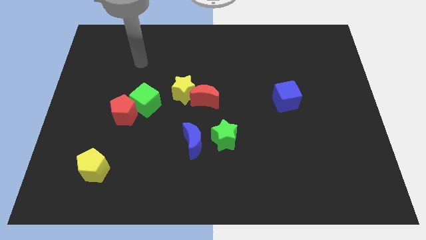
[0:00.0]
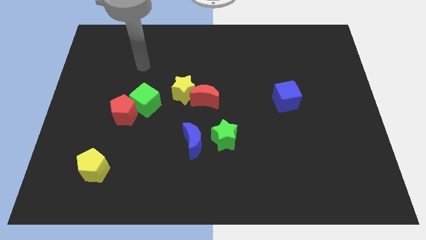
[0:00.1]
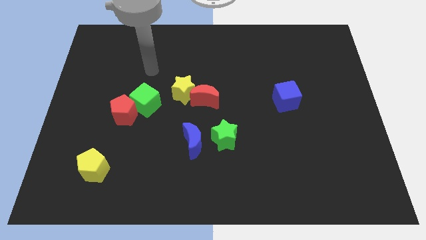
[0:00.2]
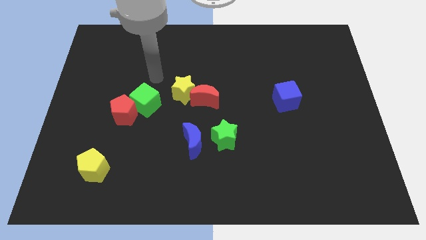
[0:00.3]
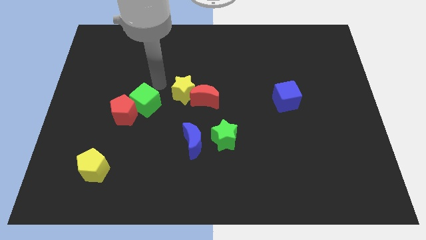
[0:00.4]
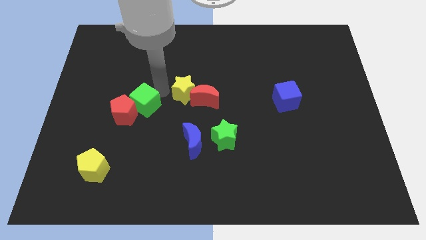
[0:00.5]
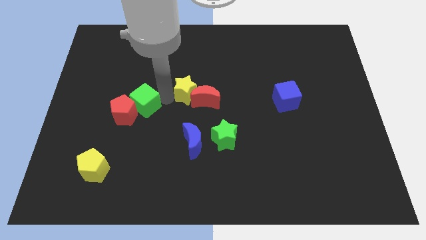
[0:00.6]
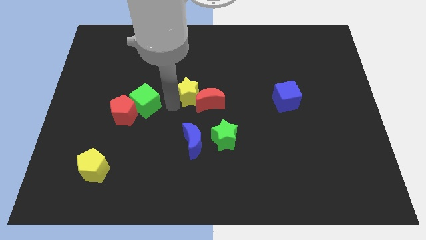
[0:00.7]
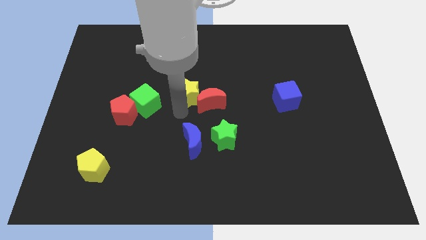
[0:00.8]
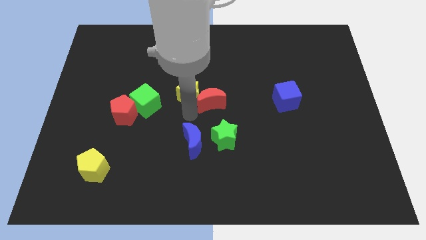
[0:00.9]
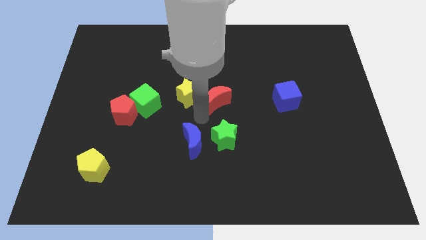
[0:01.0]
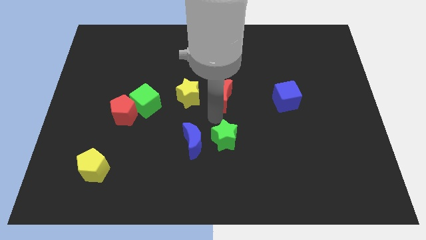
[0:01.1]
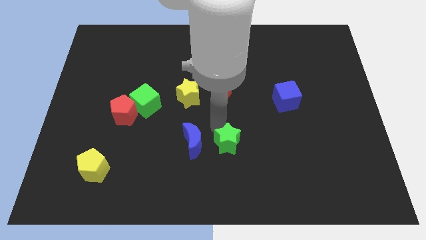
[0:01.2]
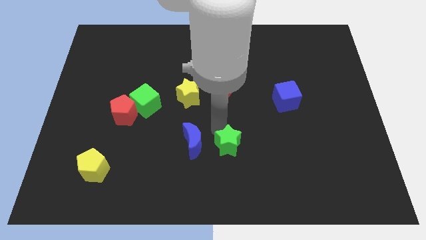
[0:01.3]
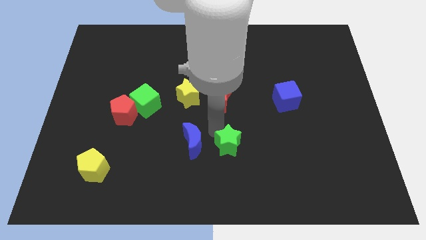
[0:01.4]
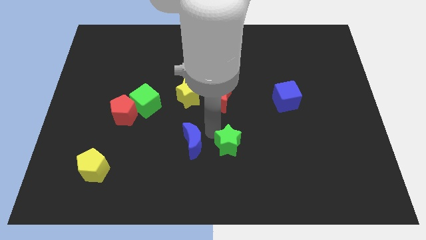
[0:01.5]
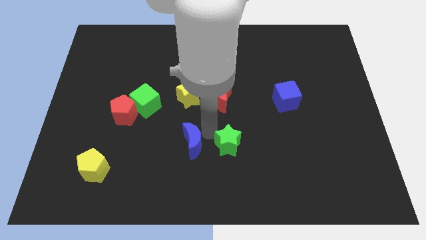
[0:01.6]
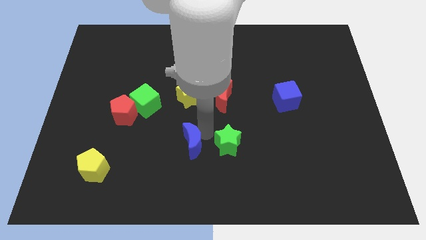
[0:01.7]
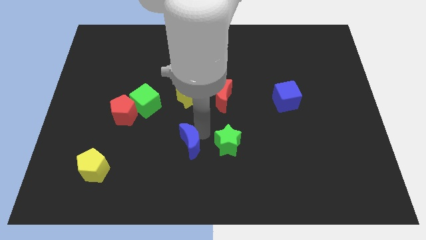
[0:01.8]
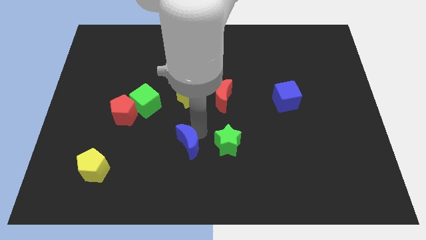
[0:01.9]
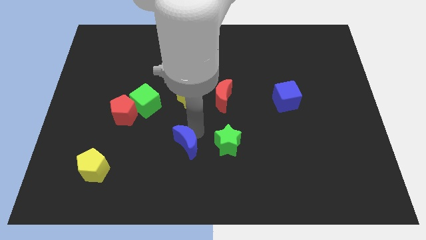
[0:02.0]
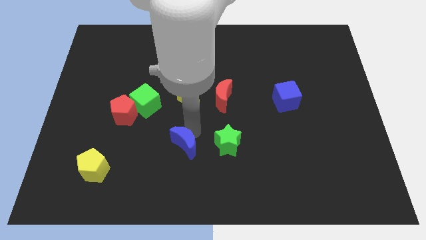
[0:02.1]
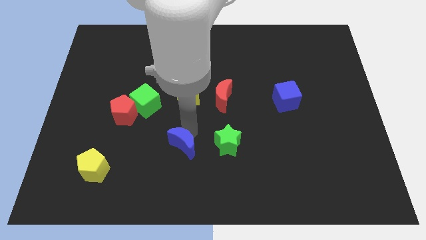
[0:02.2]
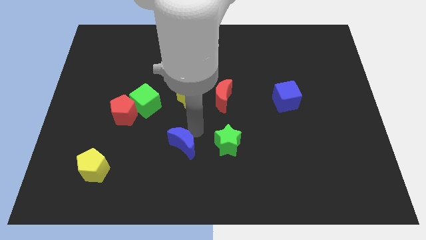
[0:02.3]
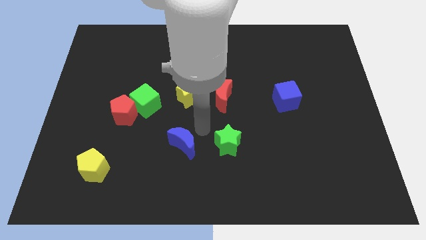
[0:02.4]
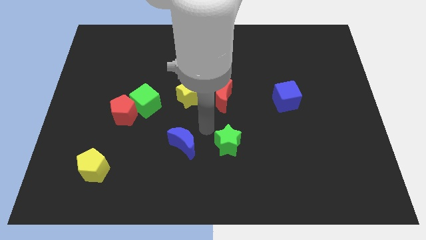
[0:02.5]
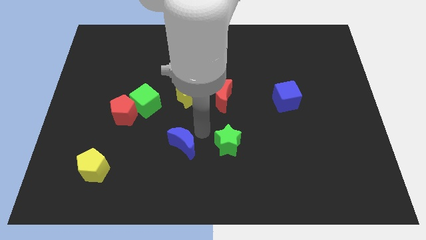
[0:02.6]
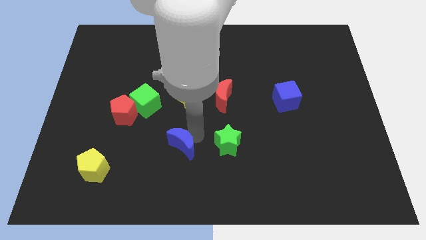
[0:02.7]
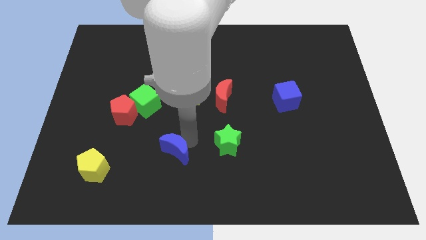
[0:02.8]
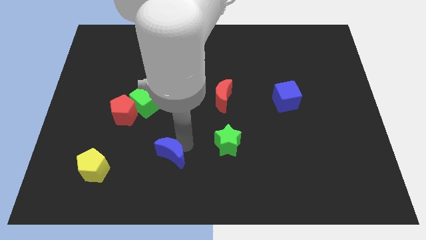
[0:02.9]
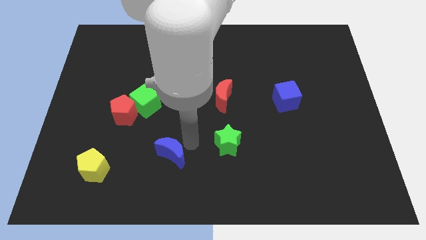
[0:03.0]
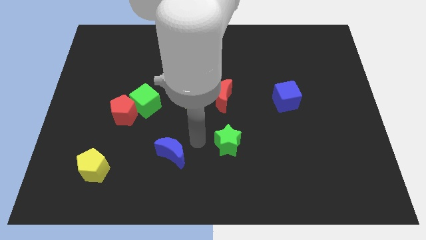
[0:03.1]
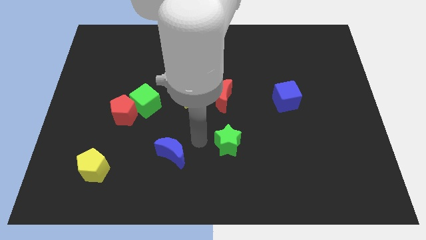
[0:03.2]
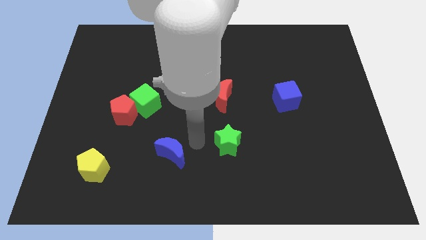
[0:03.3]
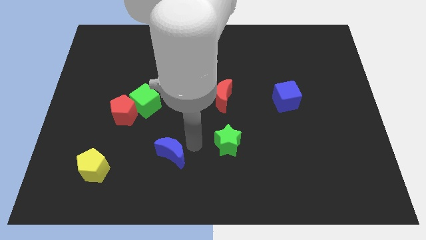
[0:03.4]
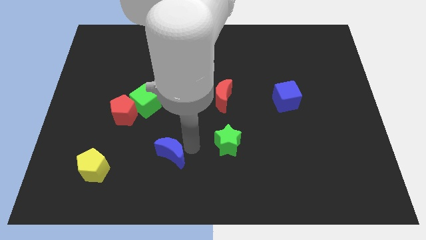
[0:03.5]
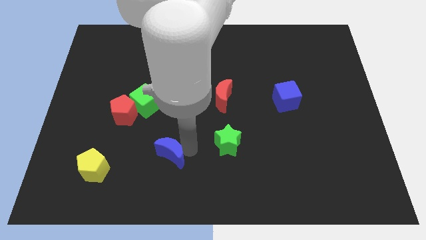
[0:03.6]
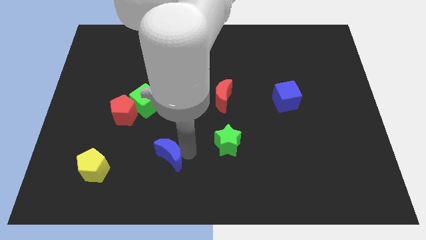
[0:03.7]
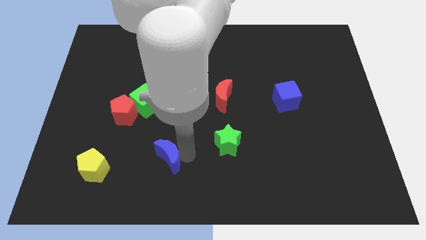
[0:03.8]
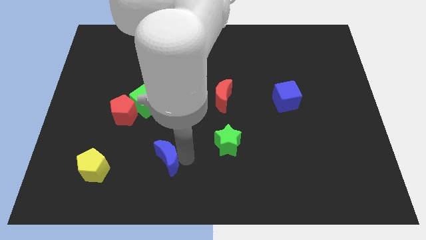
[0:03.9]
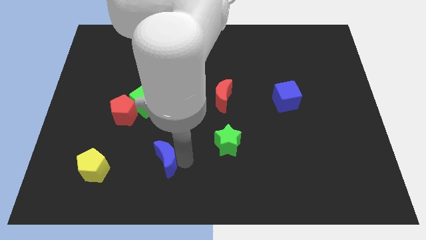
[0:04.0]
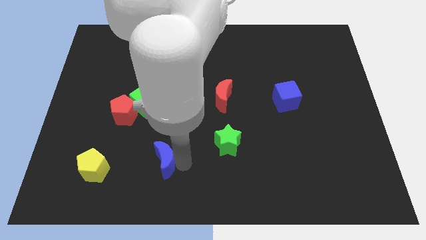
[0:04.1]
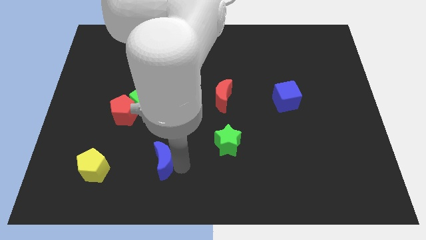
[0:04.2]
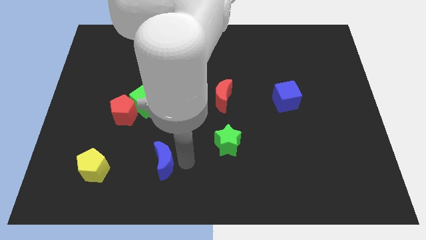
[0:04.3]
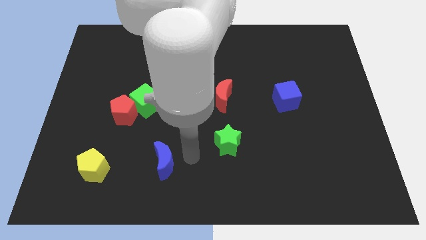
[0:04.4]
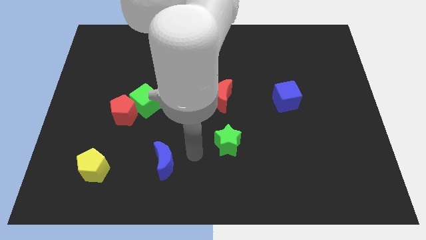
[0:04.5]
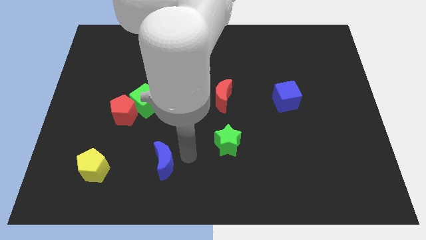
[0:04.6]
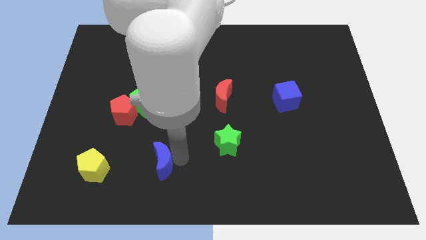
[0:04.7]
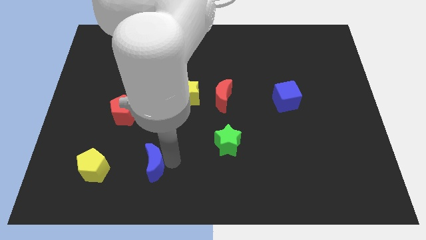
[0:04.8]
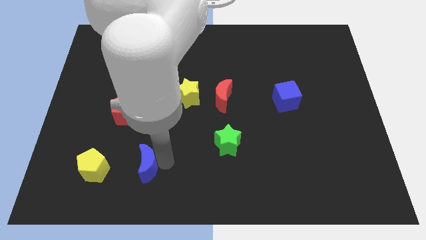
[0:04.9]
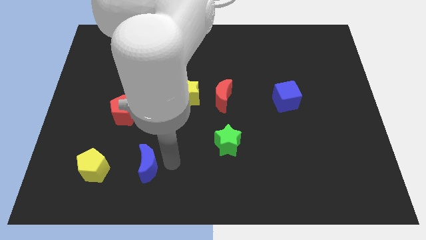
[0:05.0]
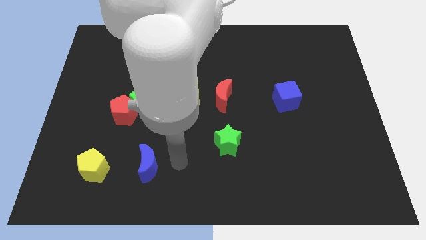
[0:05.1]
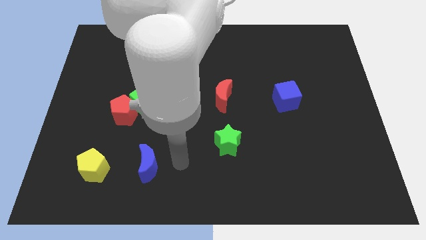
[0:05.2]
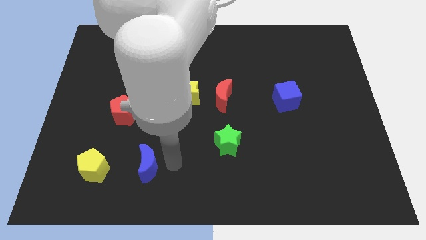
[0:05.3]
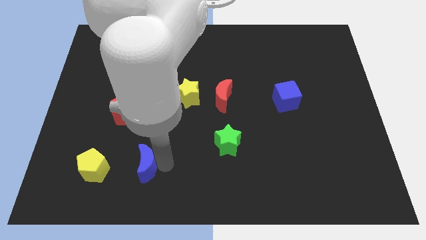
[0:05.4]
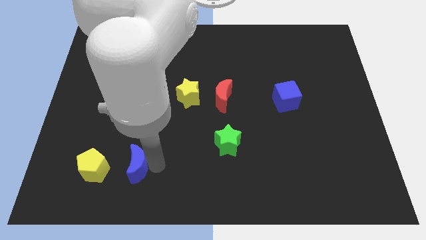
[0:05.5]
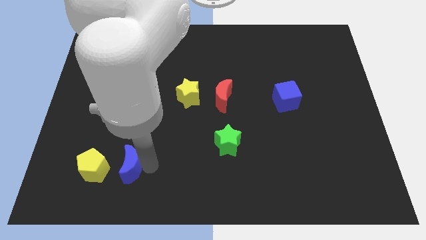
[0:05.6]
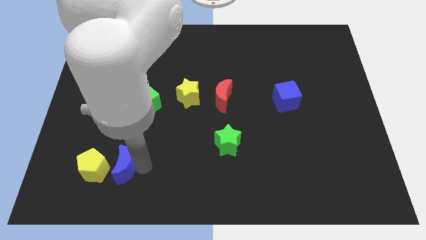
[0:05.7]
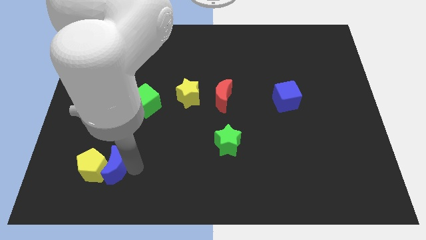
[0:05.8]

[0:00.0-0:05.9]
put the blue moon close to the yellow pentagon
